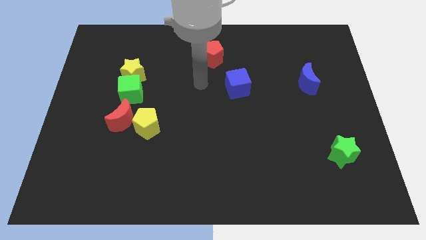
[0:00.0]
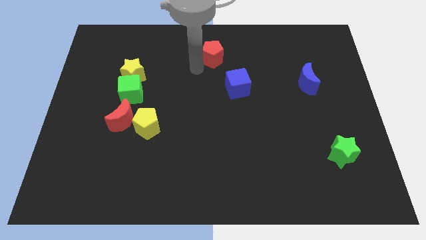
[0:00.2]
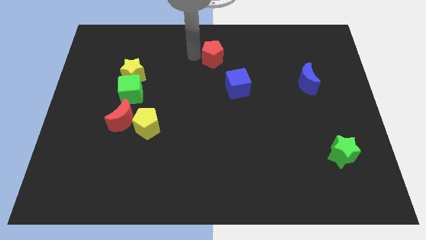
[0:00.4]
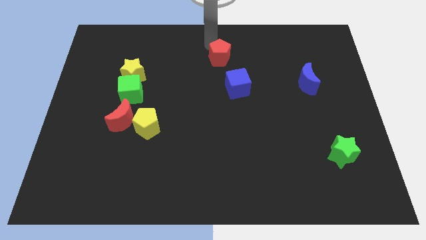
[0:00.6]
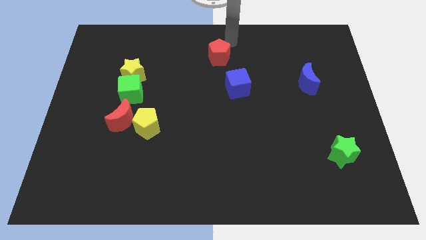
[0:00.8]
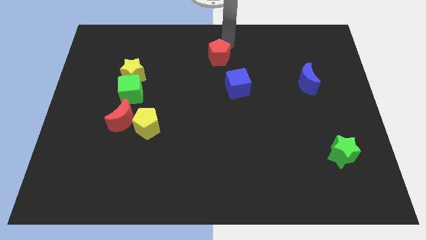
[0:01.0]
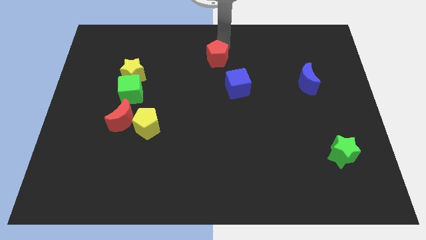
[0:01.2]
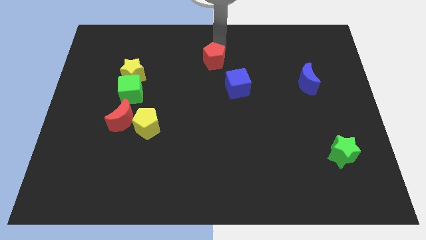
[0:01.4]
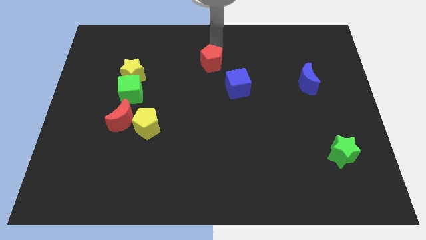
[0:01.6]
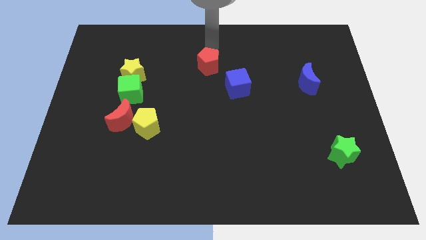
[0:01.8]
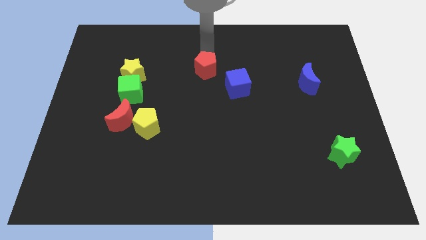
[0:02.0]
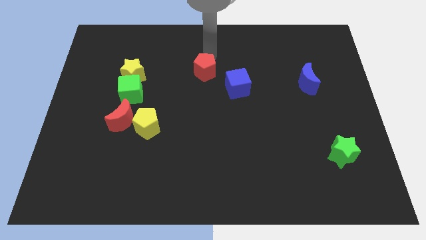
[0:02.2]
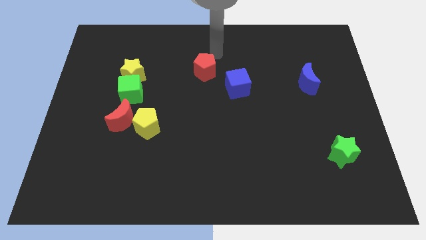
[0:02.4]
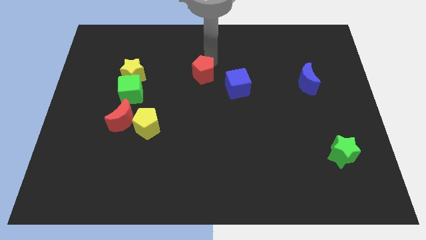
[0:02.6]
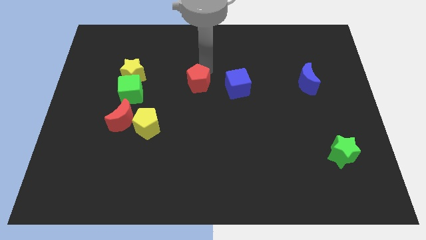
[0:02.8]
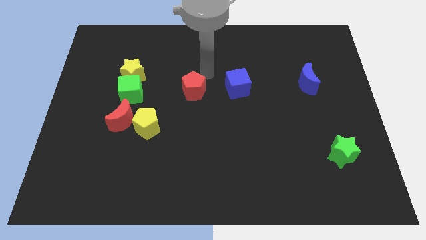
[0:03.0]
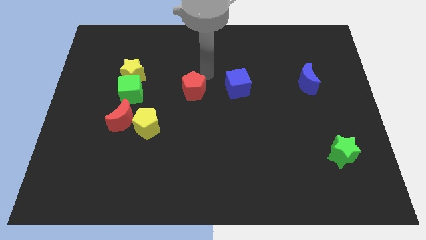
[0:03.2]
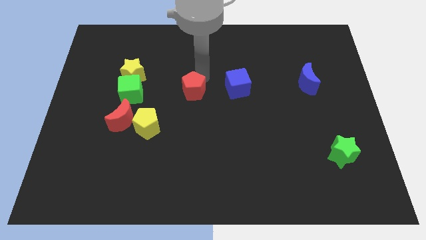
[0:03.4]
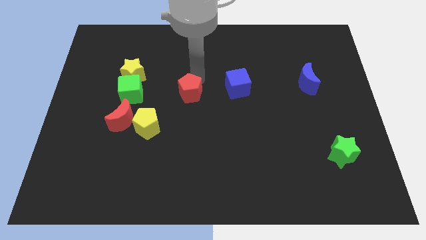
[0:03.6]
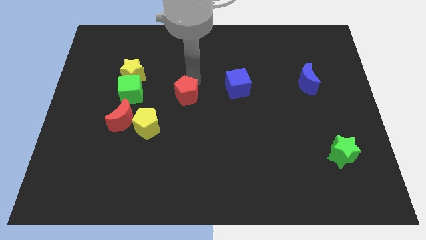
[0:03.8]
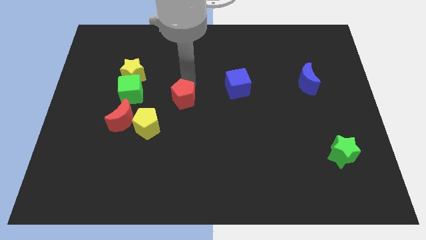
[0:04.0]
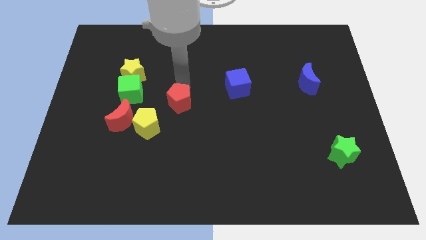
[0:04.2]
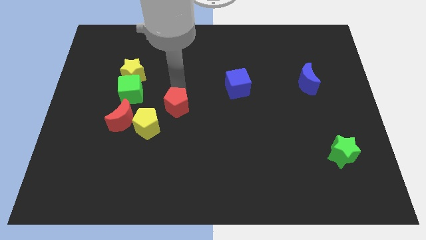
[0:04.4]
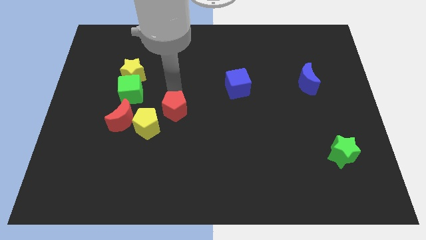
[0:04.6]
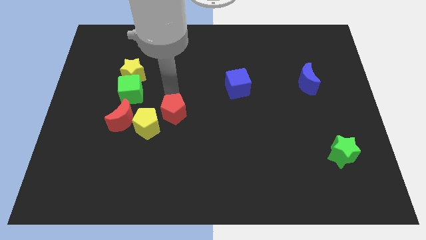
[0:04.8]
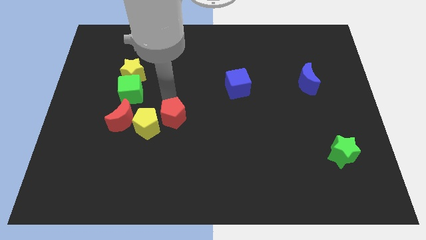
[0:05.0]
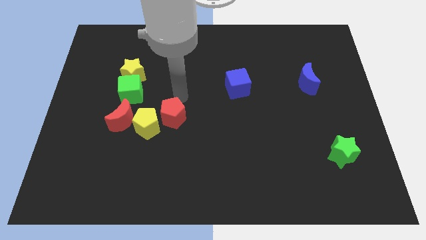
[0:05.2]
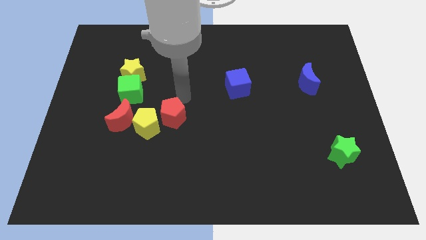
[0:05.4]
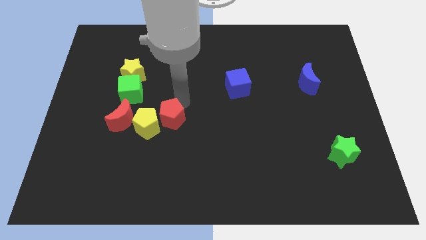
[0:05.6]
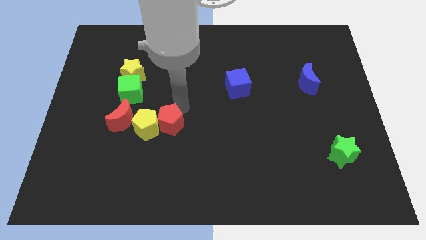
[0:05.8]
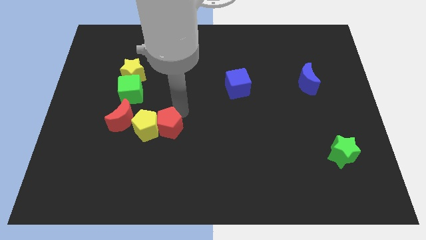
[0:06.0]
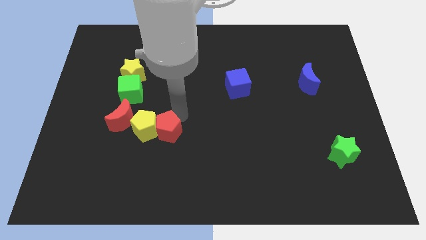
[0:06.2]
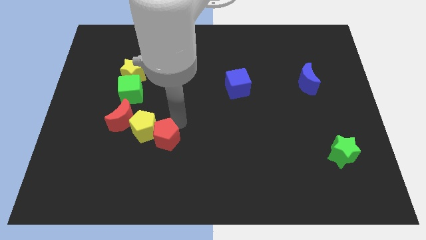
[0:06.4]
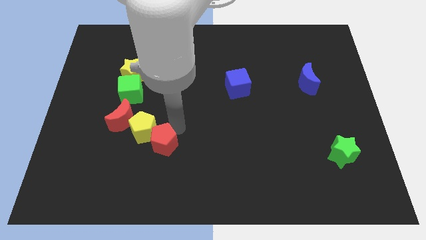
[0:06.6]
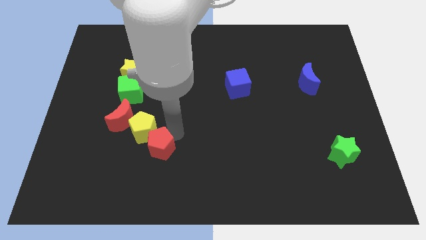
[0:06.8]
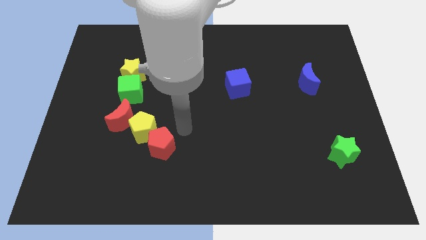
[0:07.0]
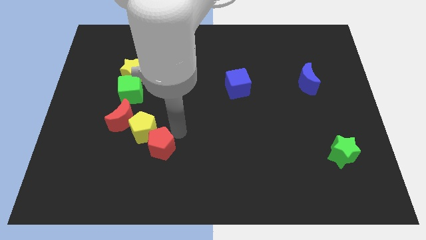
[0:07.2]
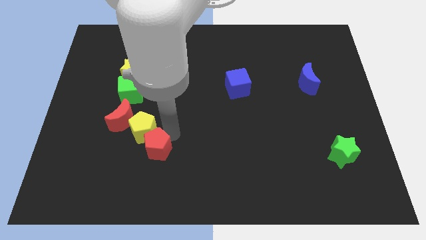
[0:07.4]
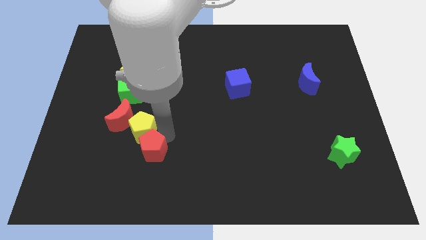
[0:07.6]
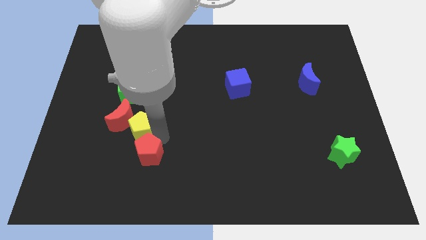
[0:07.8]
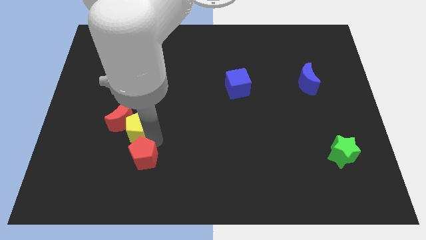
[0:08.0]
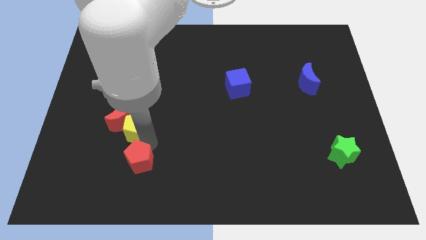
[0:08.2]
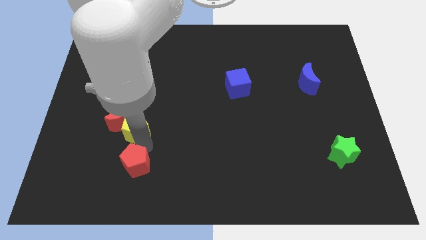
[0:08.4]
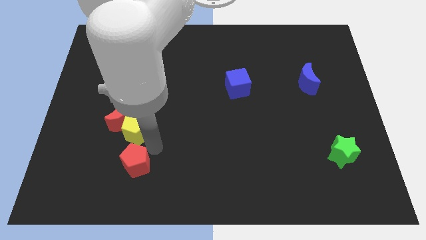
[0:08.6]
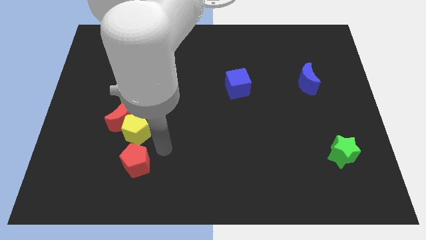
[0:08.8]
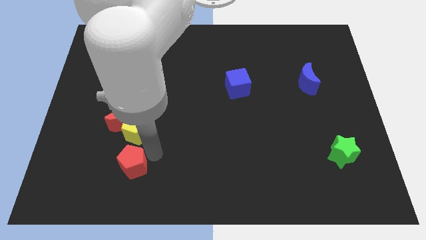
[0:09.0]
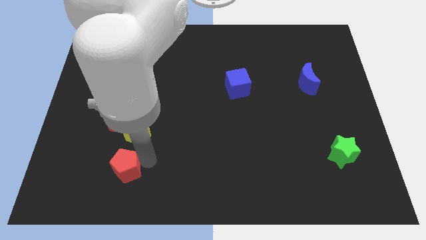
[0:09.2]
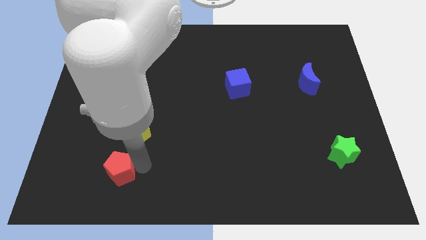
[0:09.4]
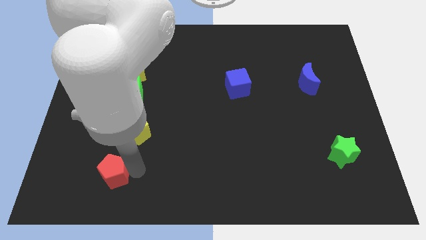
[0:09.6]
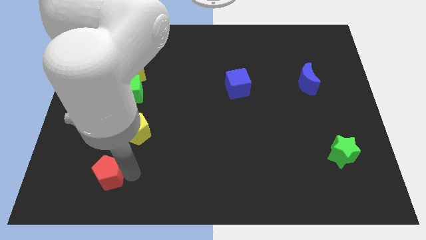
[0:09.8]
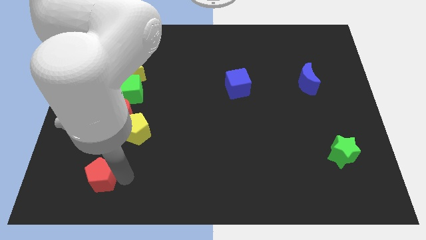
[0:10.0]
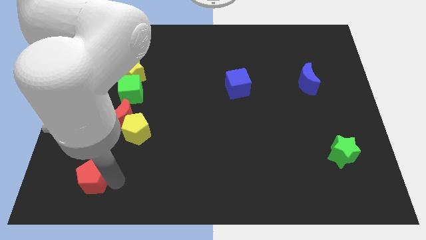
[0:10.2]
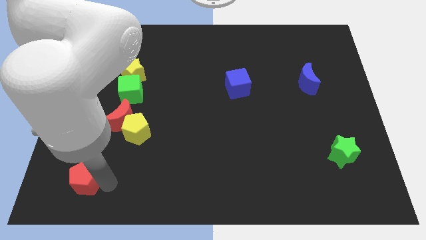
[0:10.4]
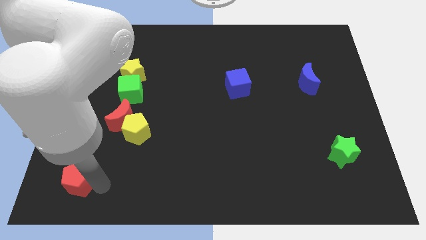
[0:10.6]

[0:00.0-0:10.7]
put the red pentagon to the lower left corner
